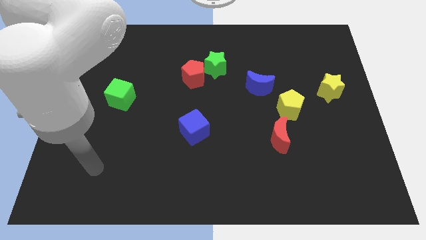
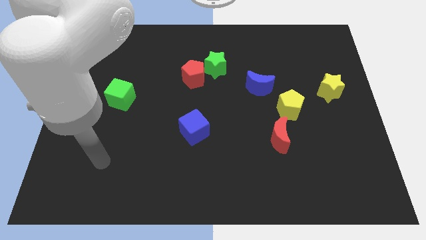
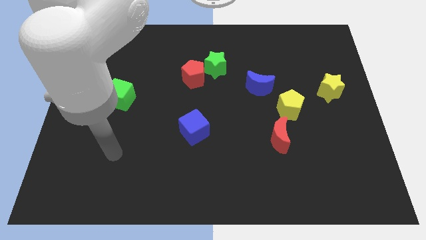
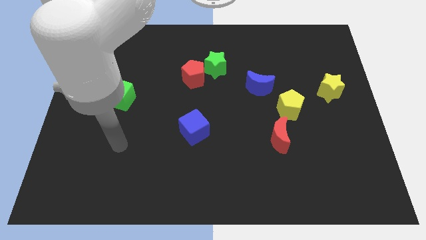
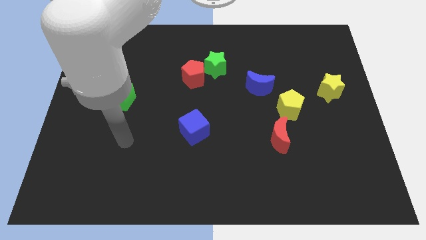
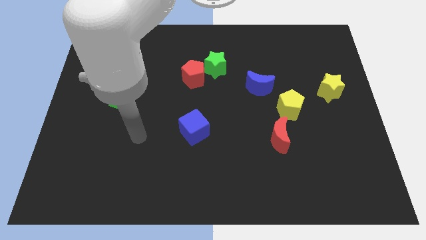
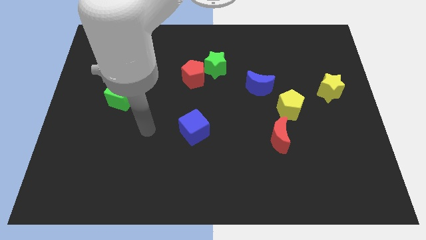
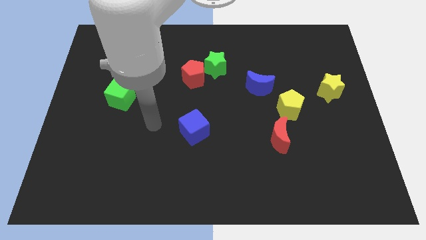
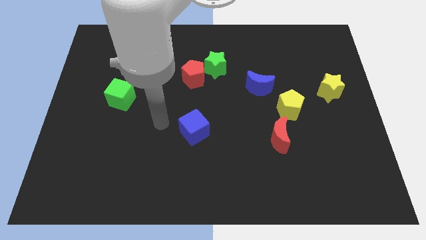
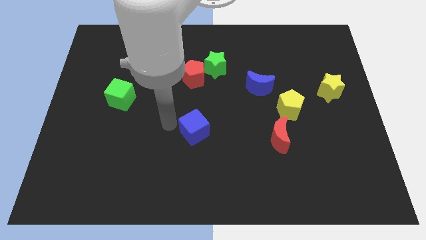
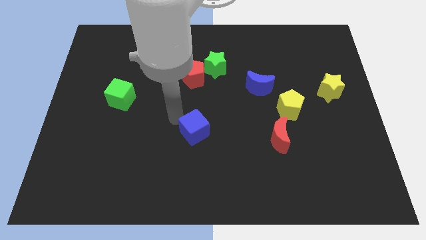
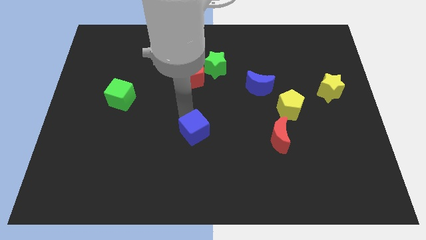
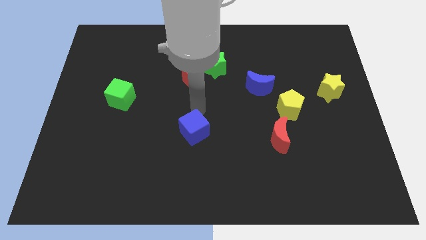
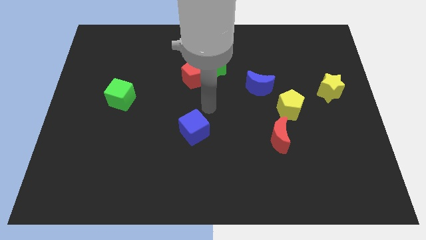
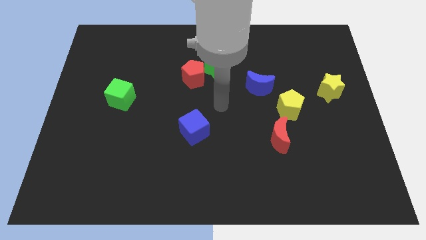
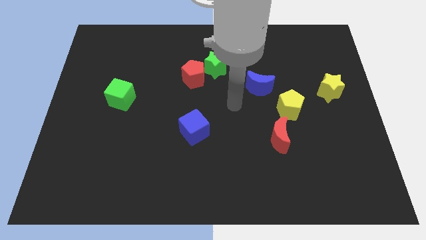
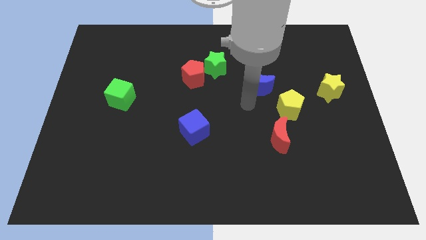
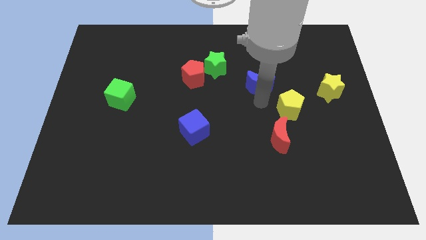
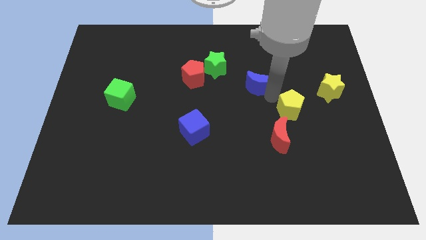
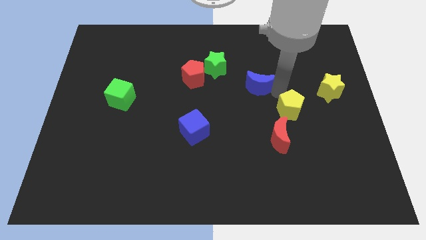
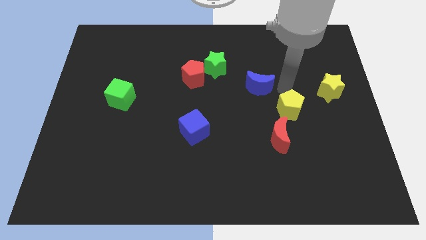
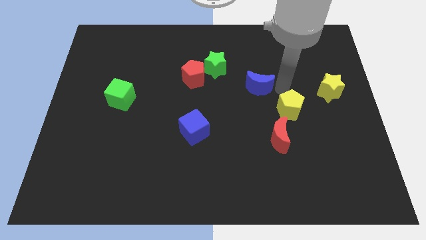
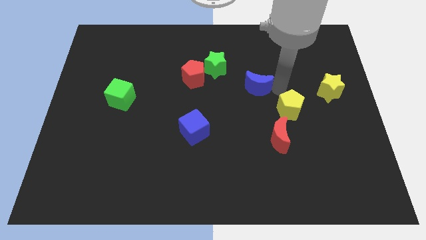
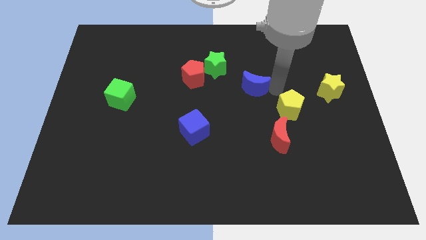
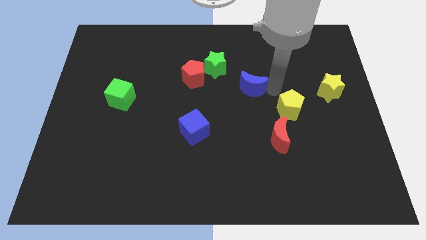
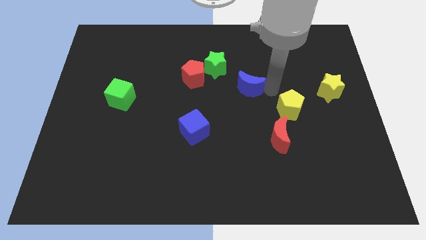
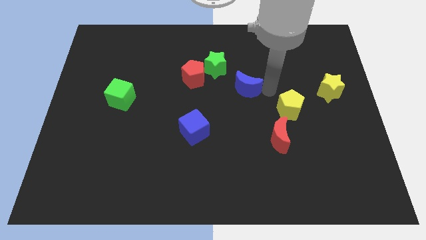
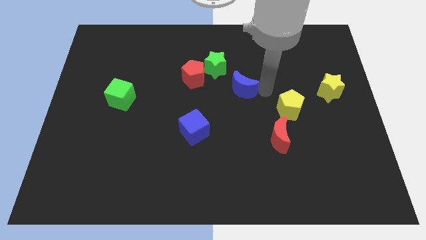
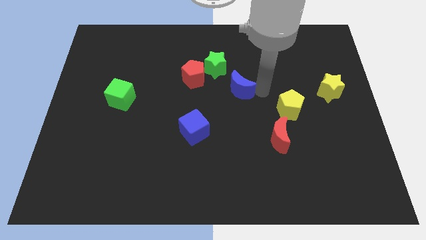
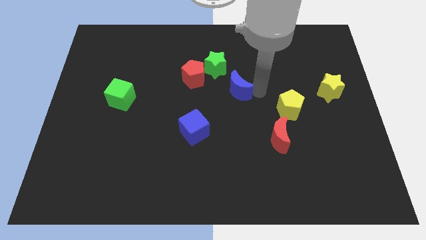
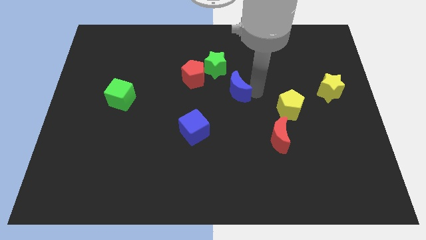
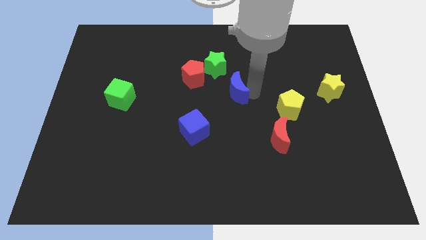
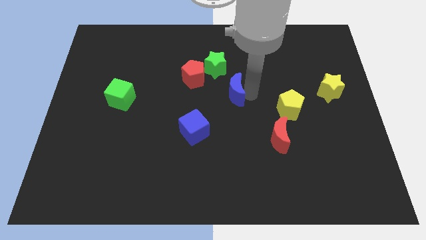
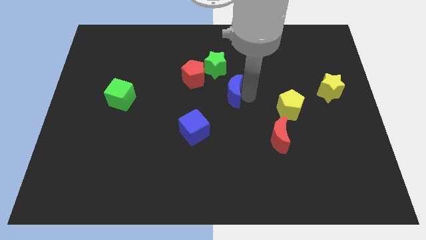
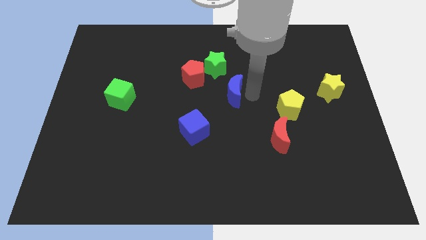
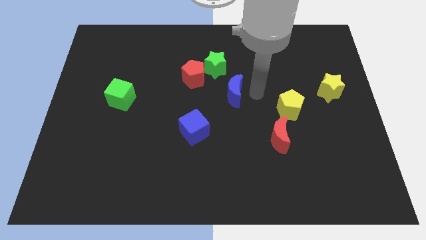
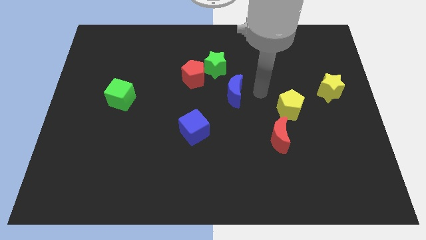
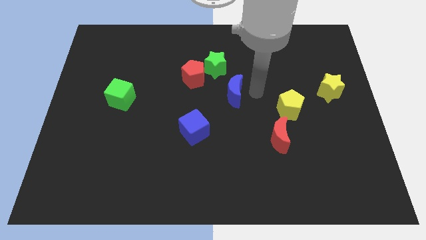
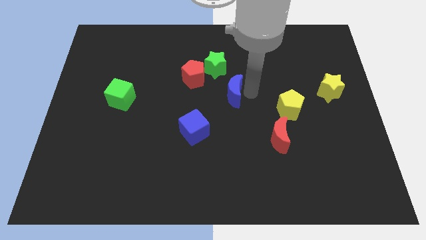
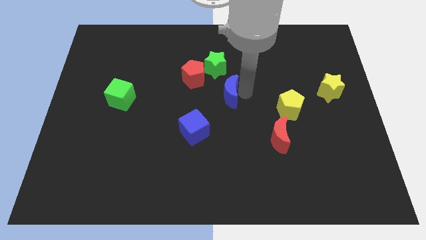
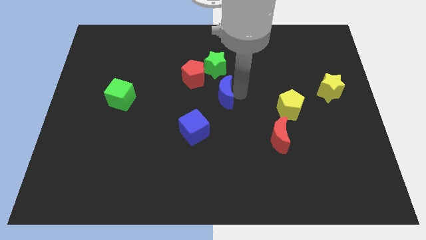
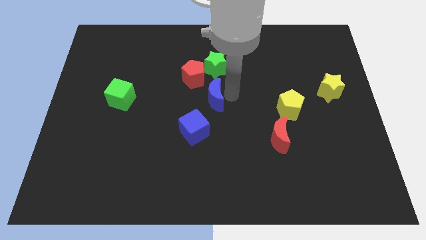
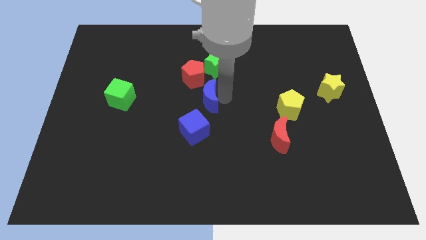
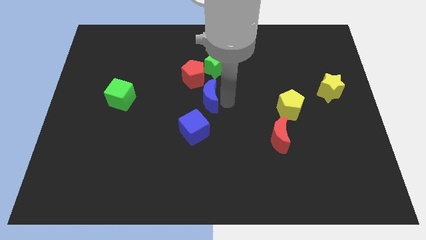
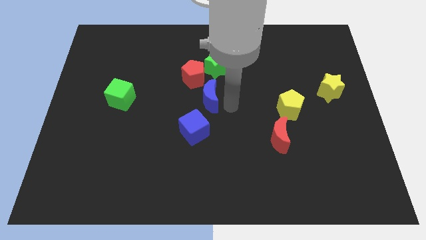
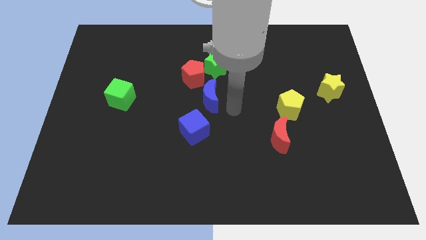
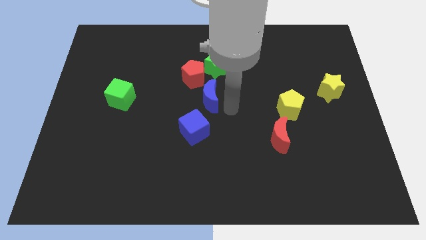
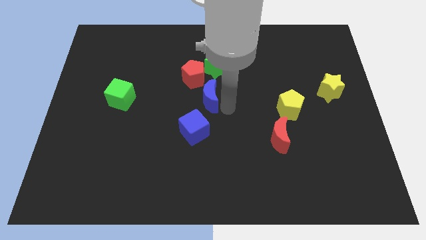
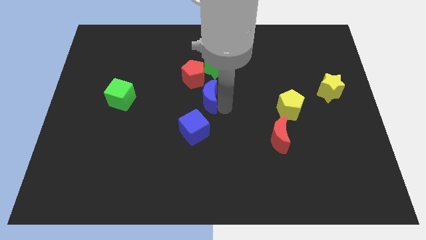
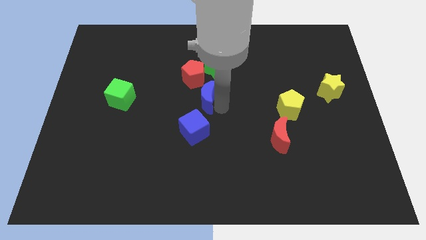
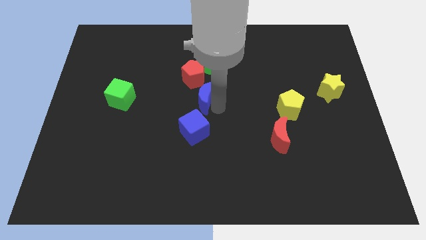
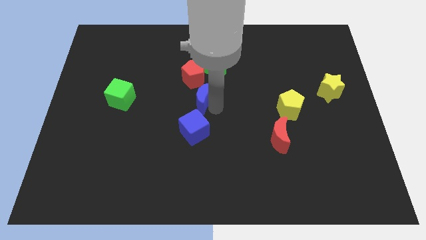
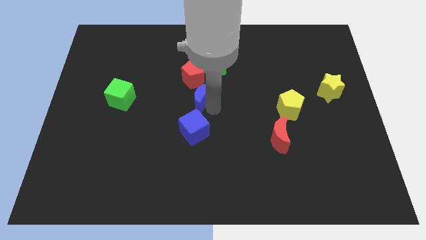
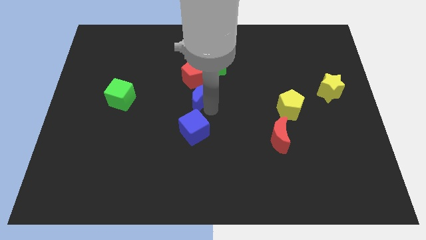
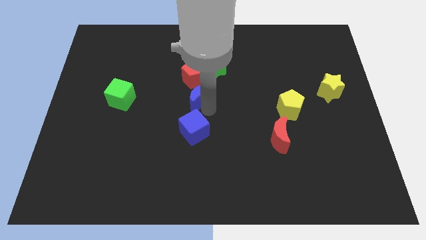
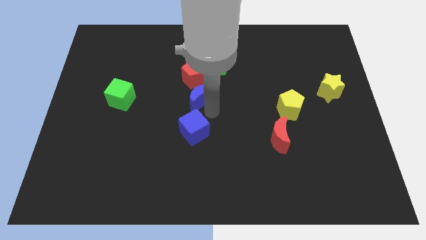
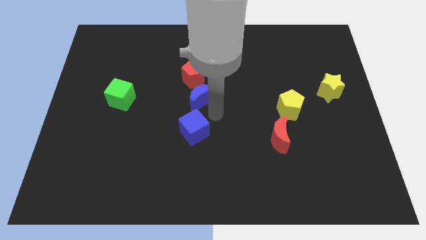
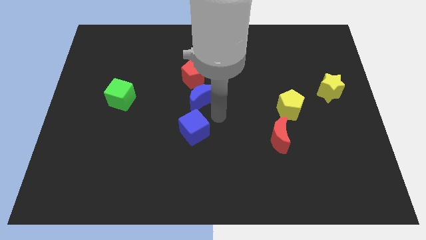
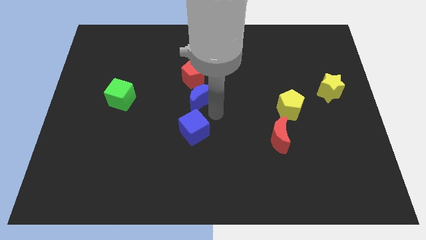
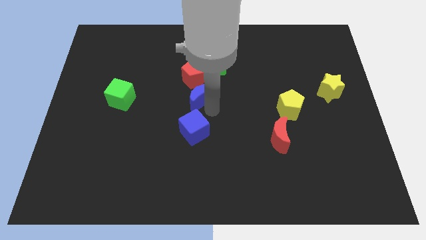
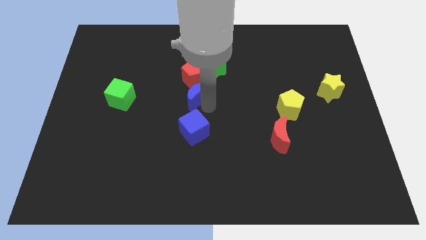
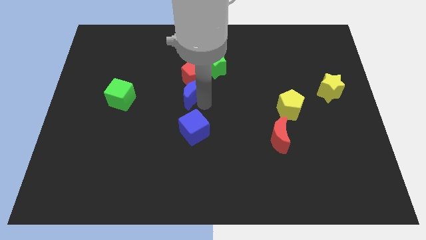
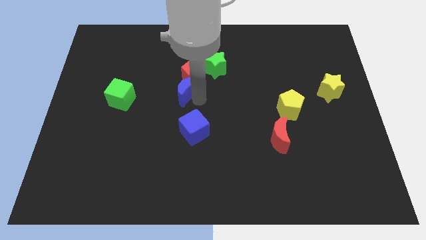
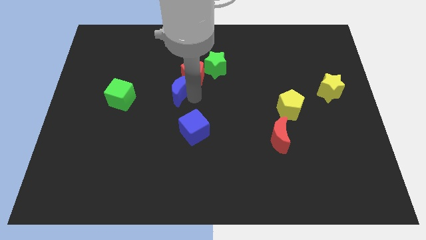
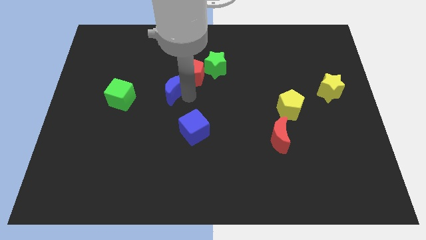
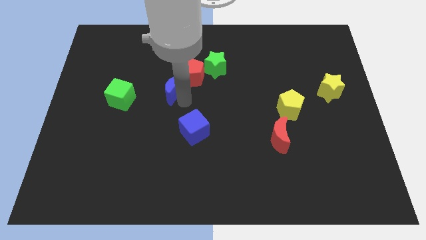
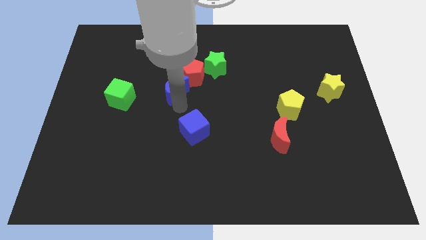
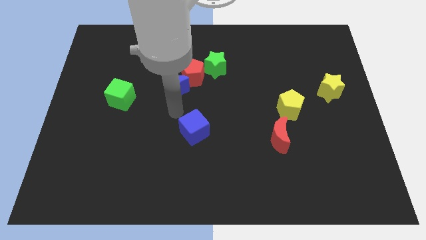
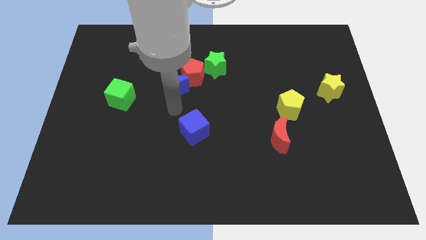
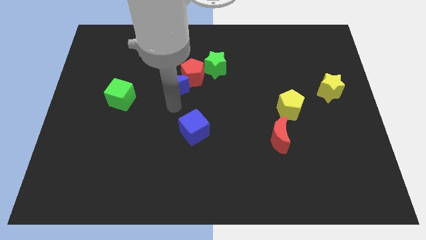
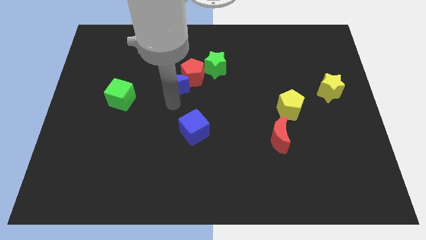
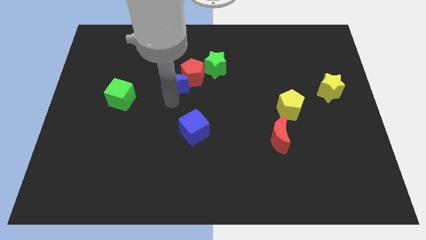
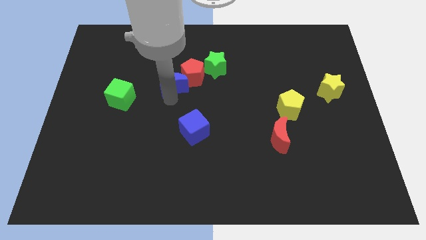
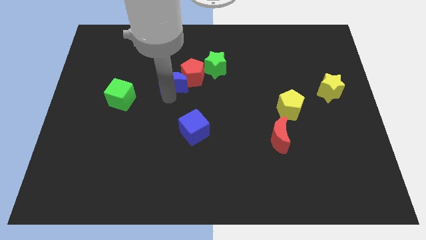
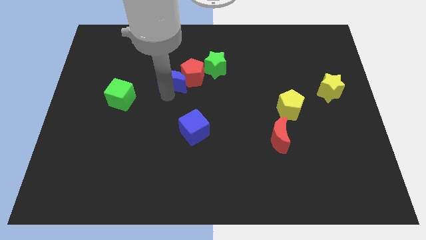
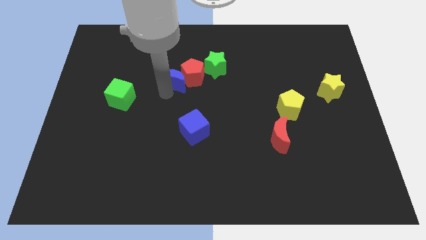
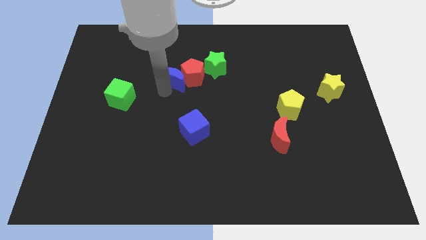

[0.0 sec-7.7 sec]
put the blue moon left of the green star

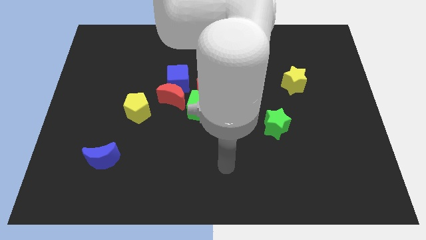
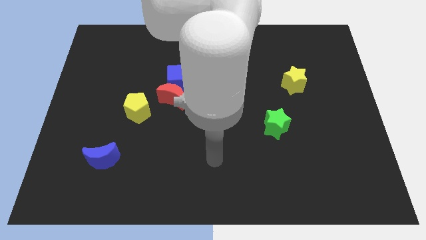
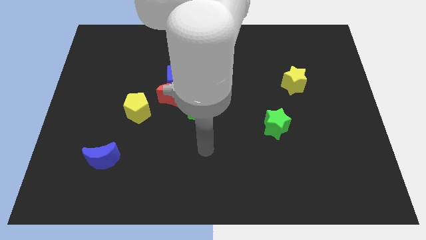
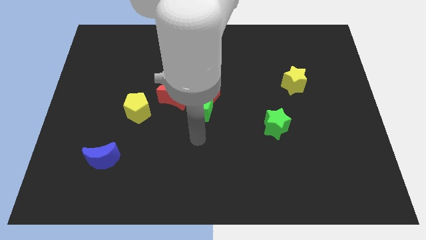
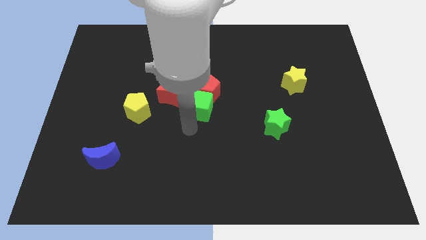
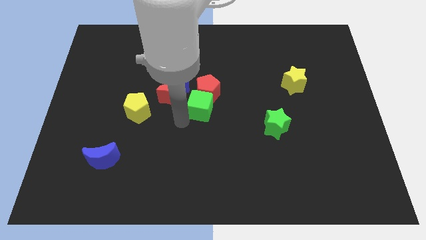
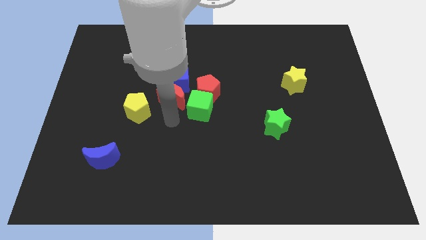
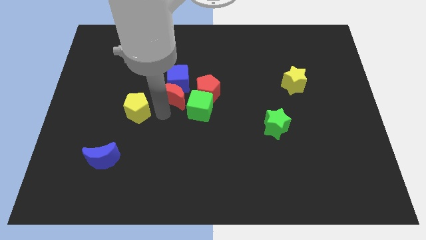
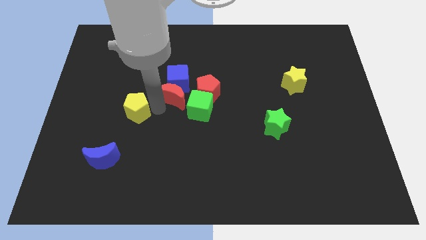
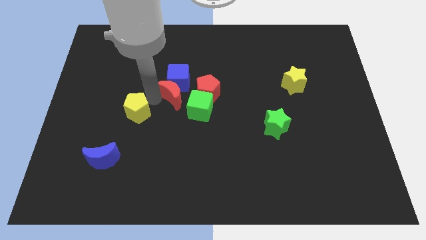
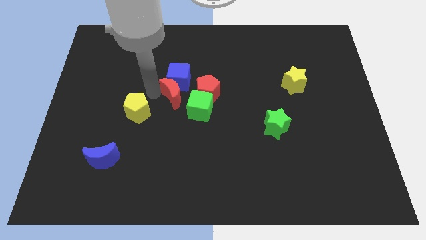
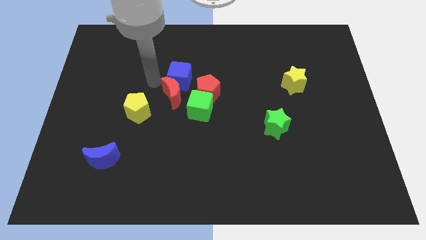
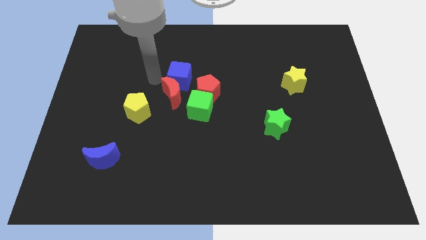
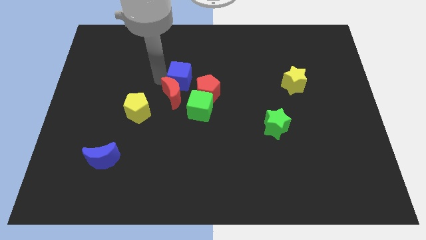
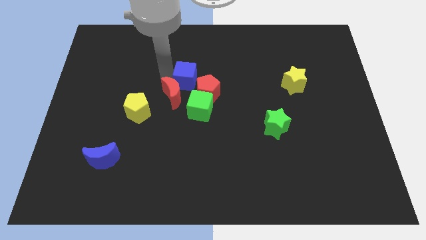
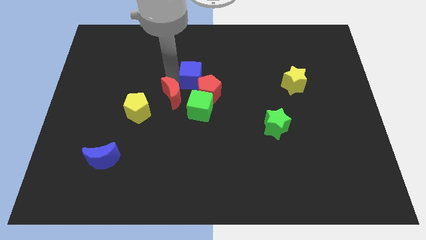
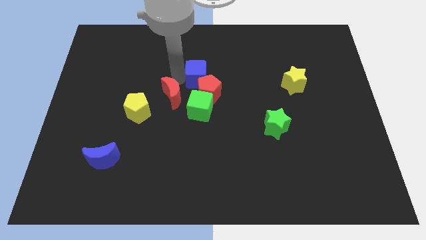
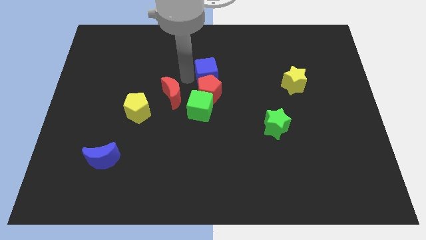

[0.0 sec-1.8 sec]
push the blue cube to the top right of the red pentagon
